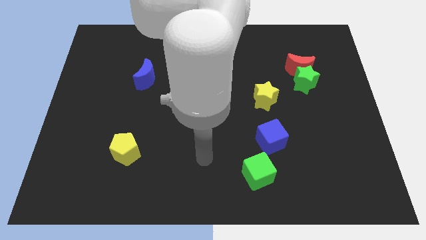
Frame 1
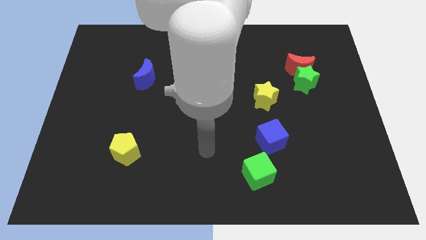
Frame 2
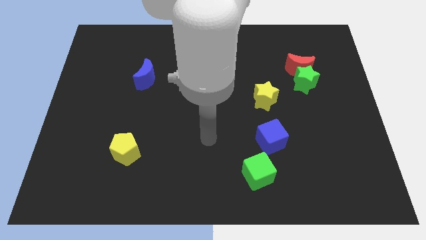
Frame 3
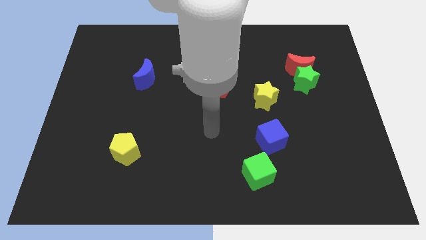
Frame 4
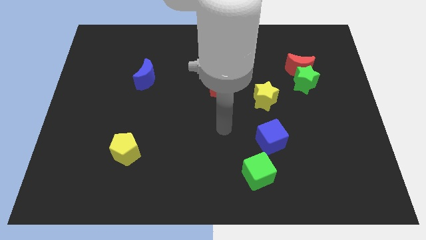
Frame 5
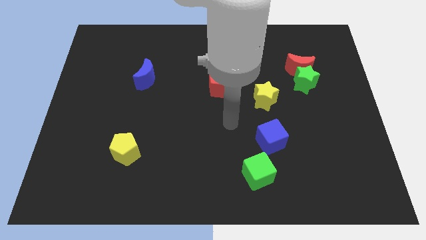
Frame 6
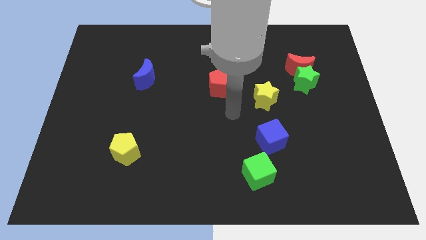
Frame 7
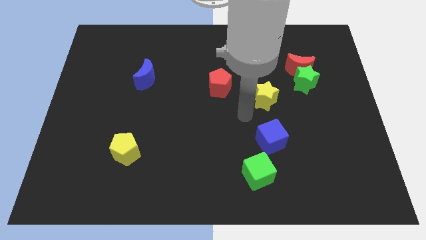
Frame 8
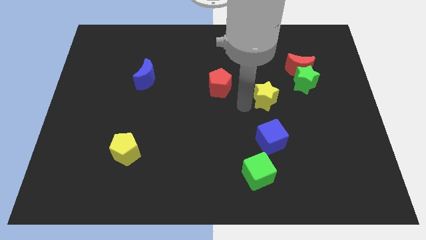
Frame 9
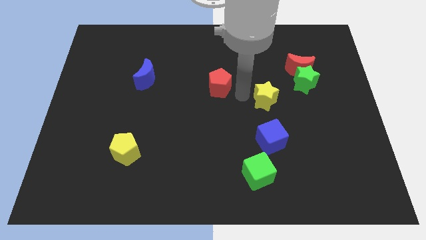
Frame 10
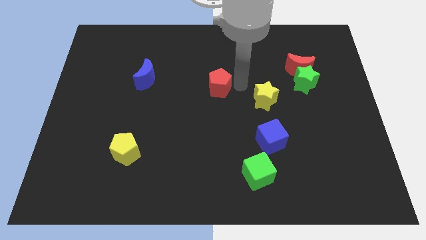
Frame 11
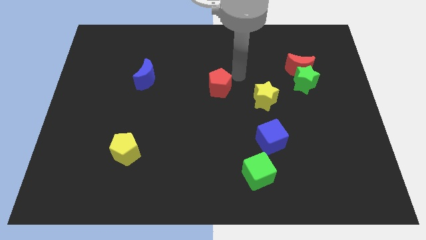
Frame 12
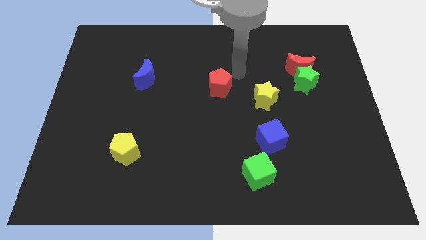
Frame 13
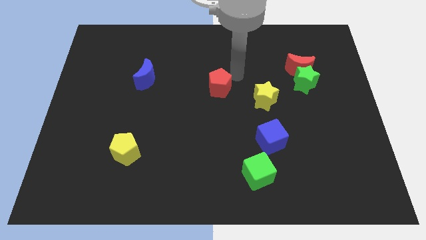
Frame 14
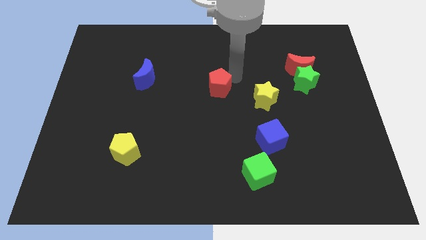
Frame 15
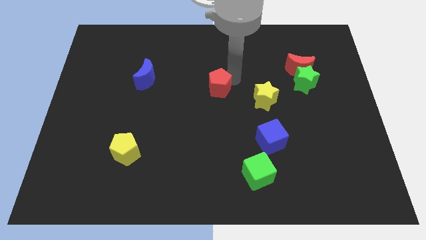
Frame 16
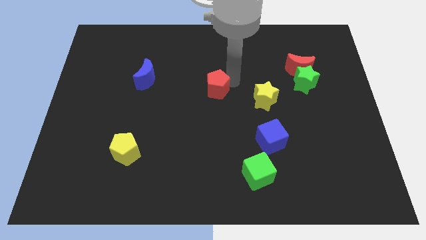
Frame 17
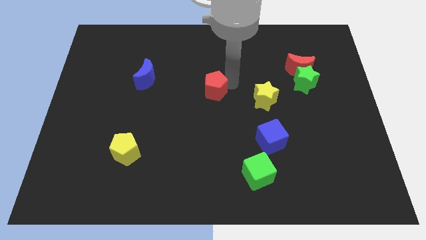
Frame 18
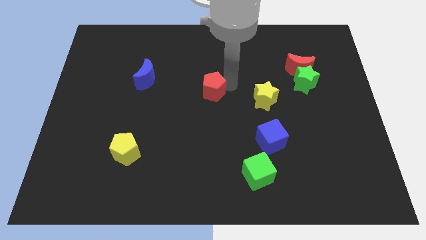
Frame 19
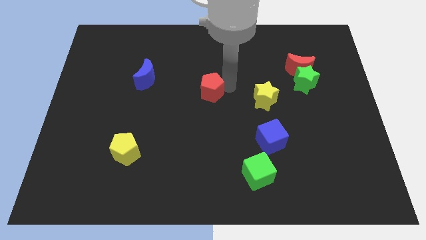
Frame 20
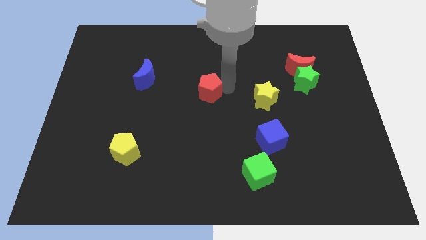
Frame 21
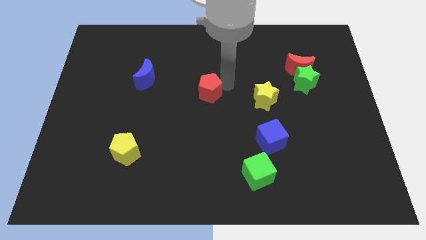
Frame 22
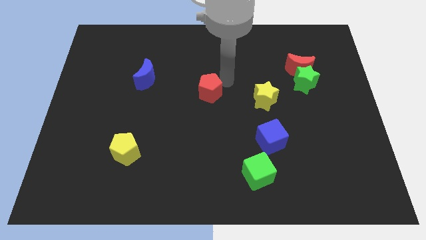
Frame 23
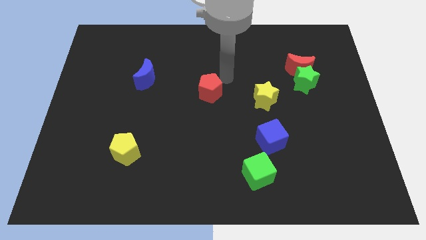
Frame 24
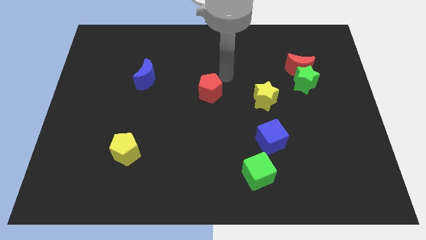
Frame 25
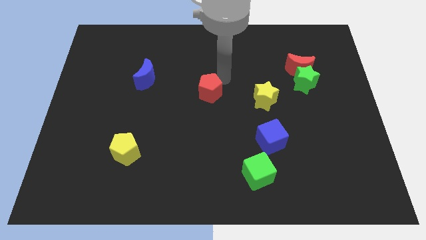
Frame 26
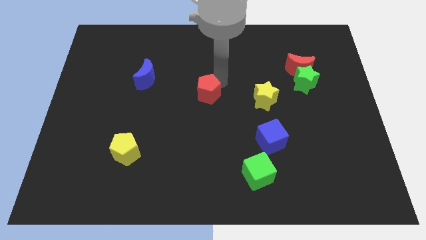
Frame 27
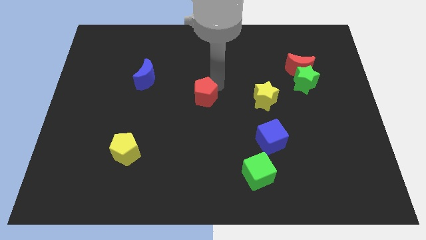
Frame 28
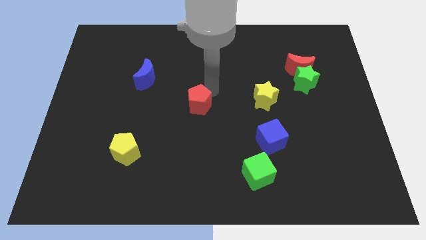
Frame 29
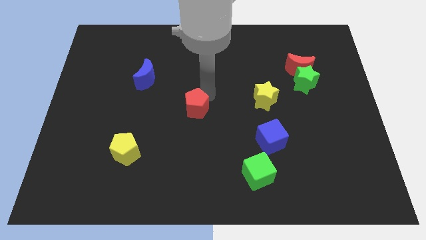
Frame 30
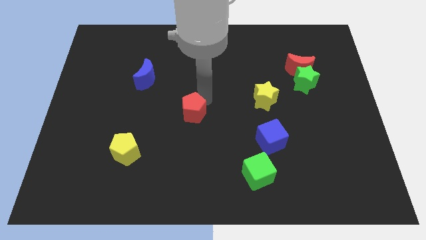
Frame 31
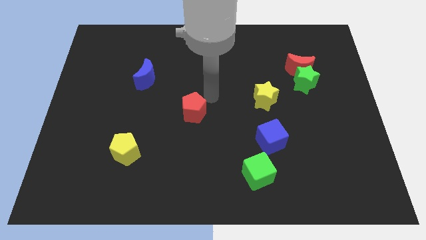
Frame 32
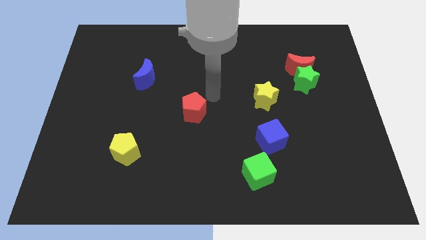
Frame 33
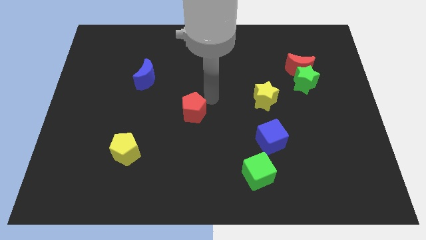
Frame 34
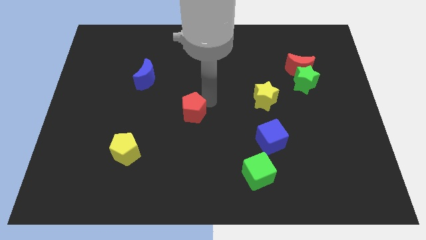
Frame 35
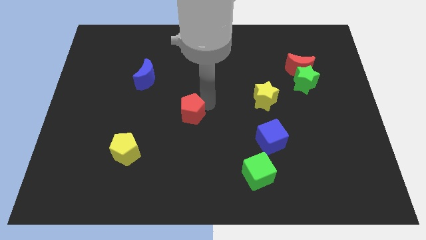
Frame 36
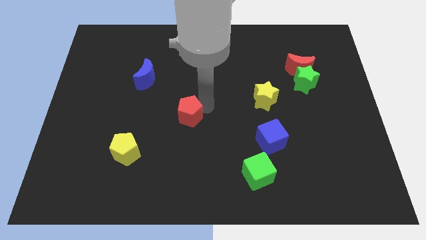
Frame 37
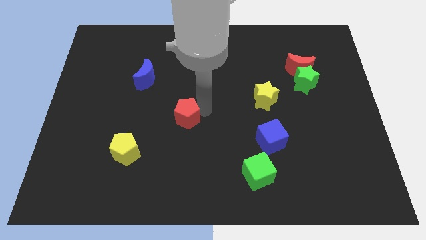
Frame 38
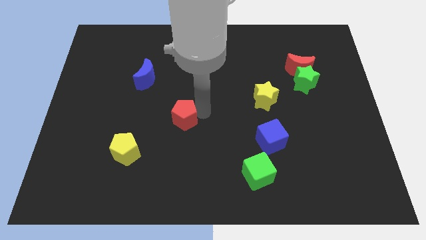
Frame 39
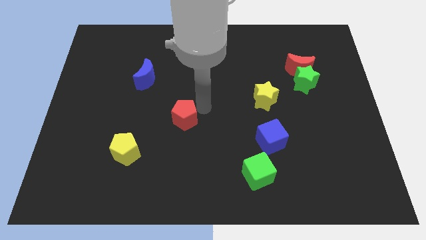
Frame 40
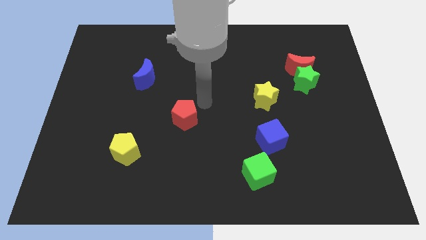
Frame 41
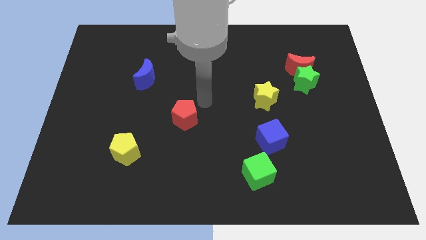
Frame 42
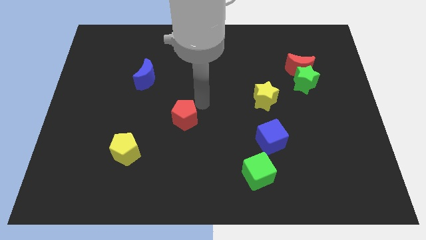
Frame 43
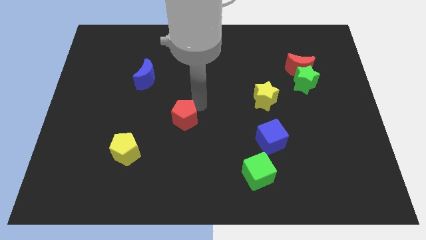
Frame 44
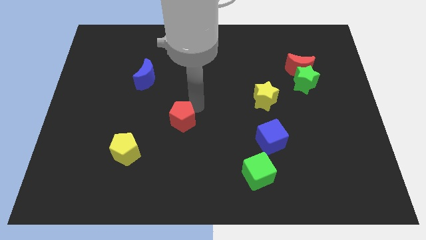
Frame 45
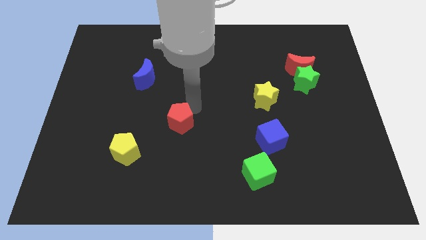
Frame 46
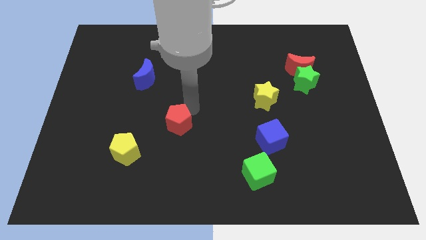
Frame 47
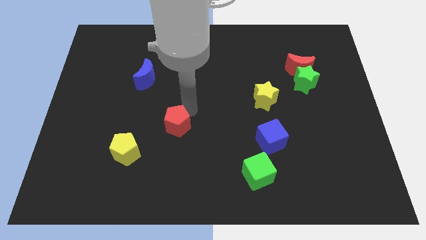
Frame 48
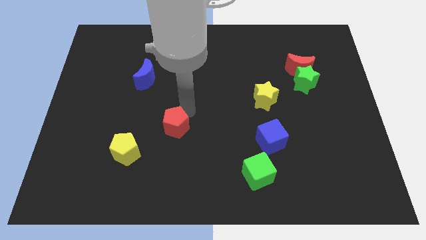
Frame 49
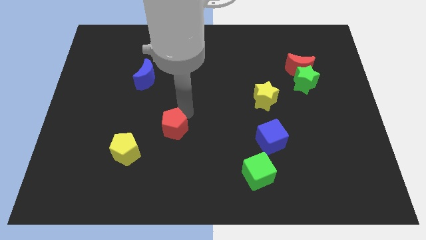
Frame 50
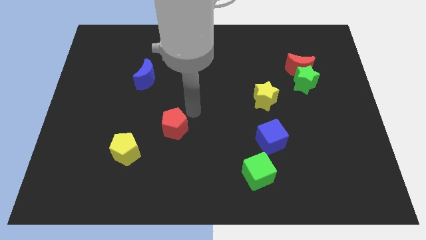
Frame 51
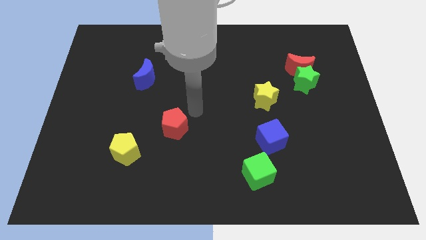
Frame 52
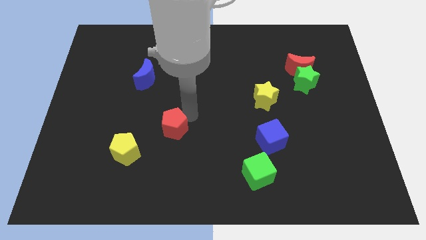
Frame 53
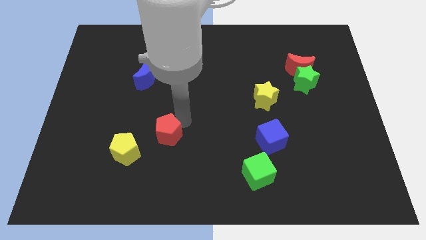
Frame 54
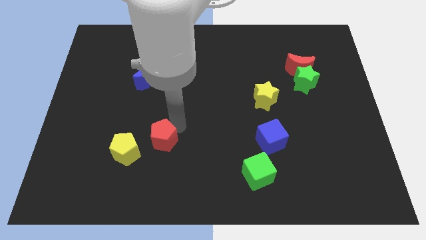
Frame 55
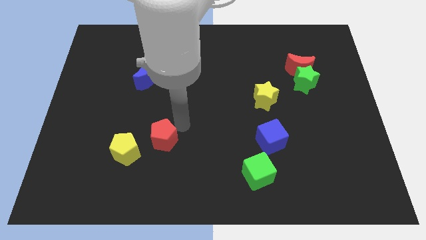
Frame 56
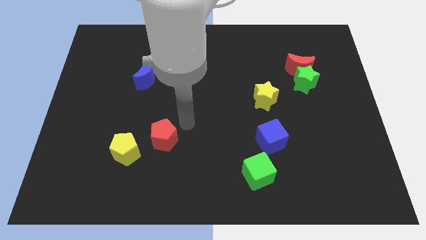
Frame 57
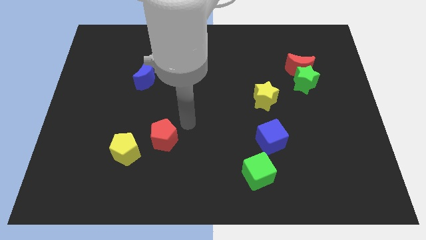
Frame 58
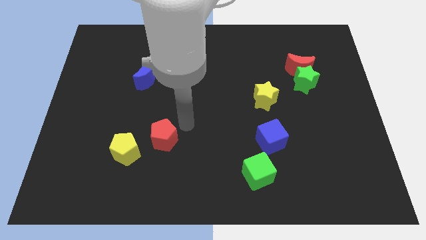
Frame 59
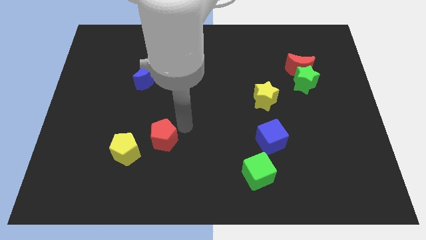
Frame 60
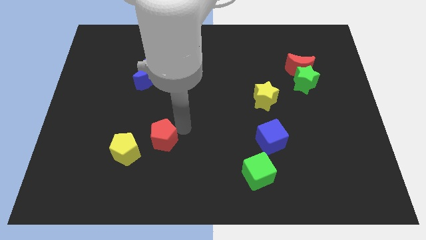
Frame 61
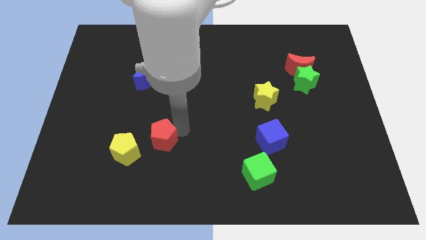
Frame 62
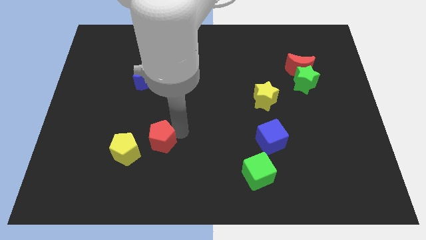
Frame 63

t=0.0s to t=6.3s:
push the red pentagon downwards and left diagonally

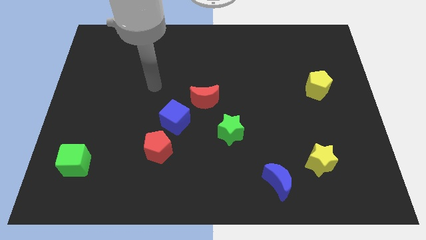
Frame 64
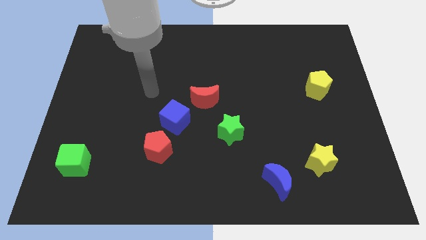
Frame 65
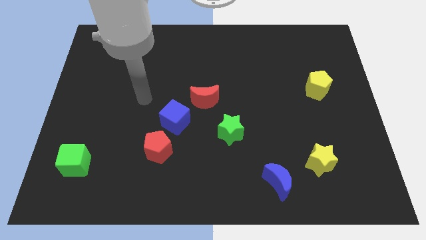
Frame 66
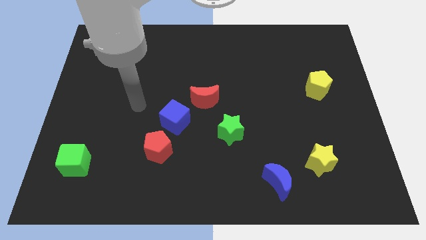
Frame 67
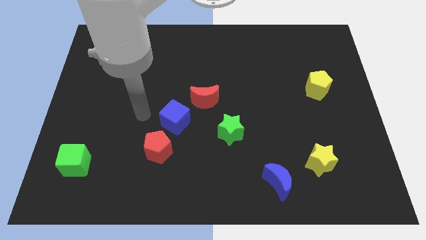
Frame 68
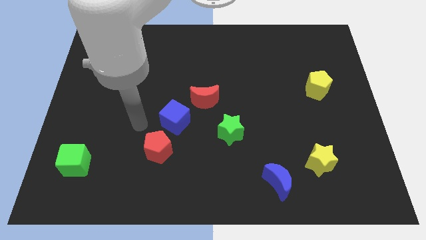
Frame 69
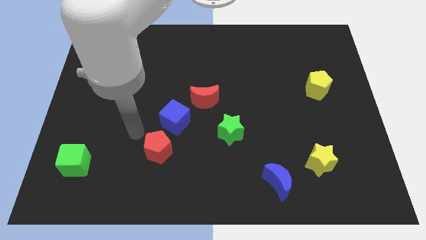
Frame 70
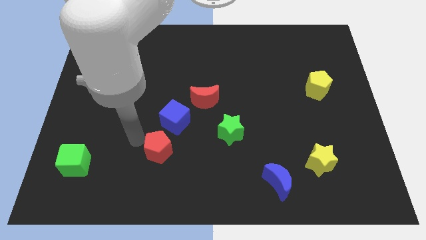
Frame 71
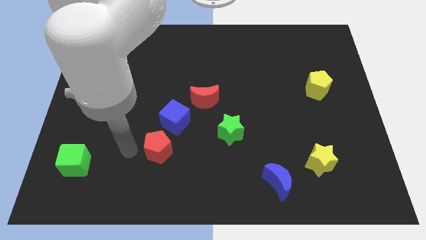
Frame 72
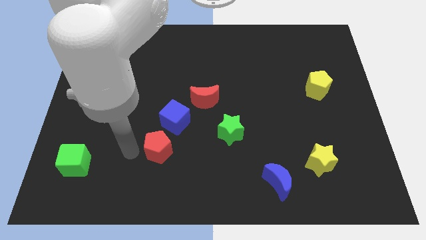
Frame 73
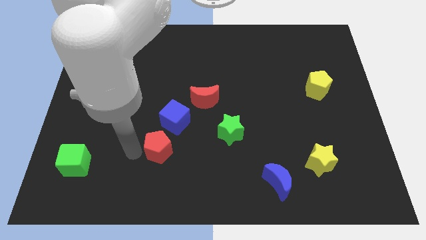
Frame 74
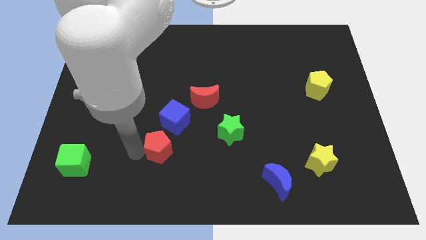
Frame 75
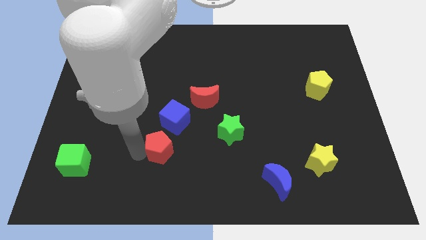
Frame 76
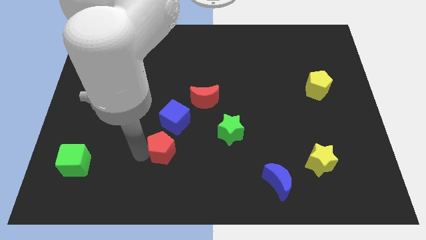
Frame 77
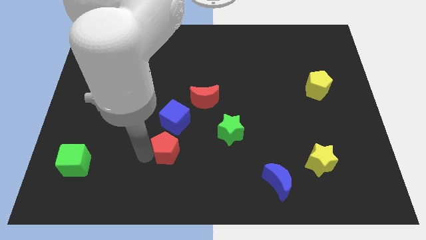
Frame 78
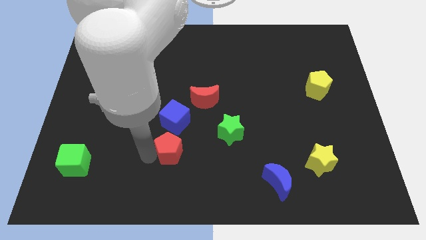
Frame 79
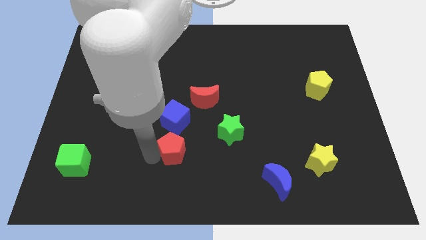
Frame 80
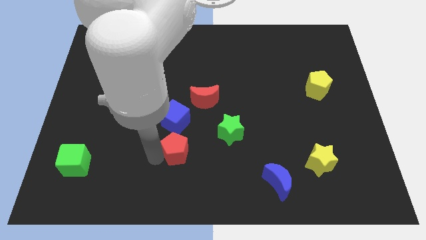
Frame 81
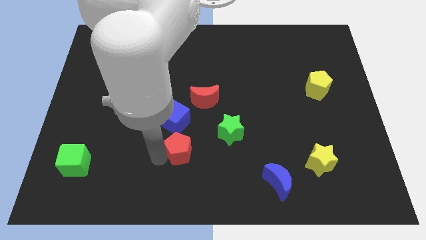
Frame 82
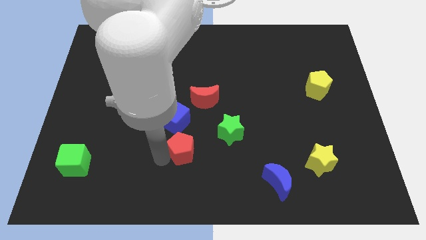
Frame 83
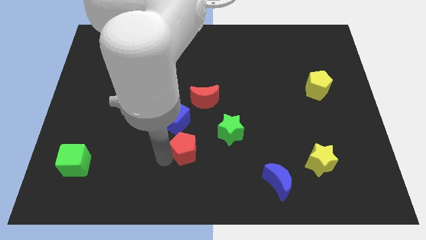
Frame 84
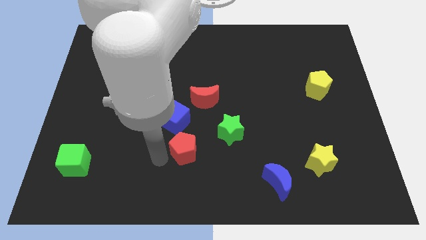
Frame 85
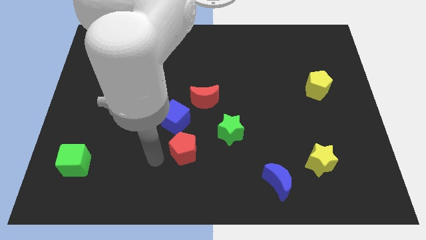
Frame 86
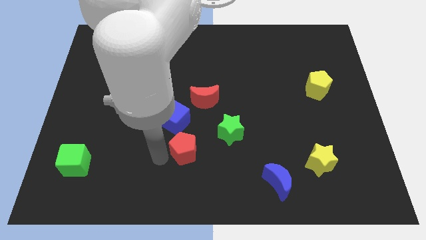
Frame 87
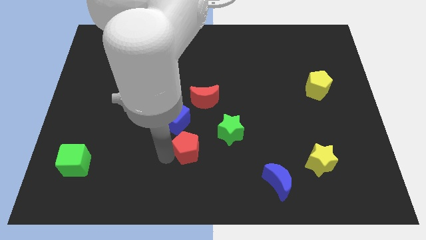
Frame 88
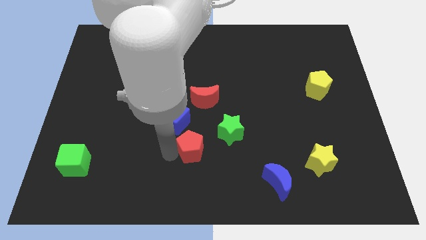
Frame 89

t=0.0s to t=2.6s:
slightly push the red pentagon right
